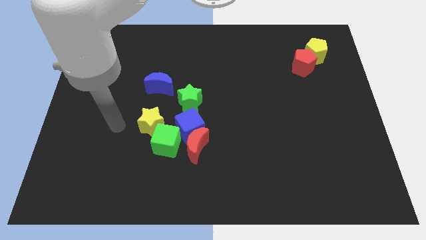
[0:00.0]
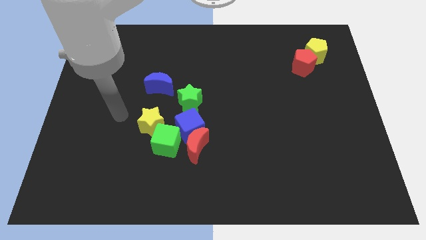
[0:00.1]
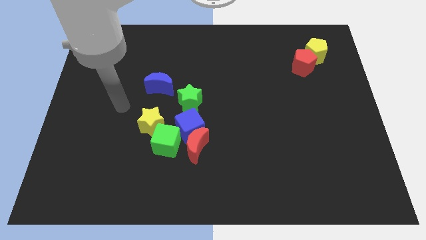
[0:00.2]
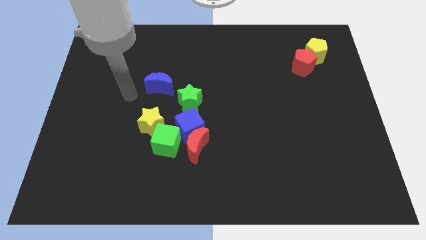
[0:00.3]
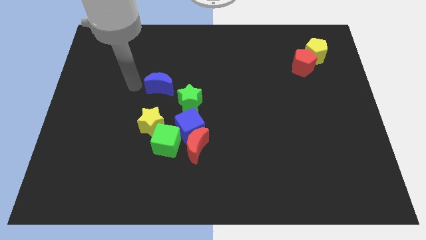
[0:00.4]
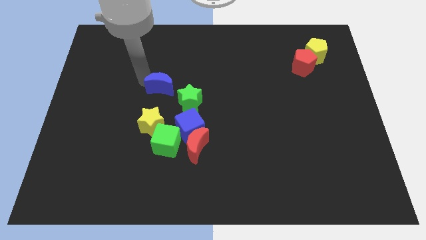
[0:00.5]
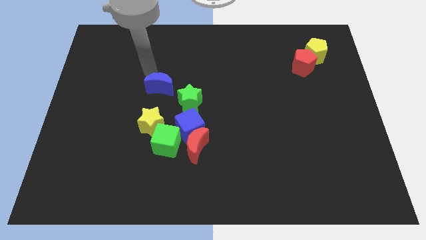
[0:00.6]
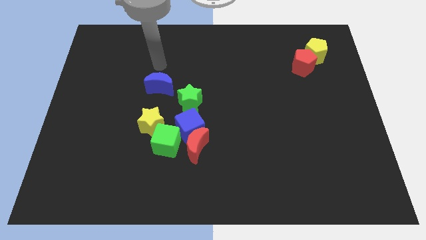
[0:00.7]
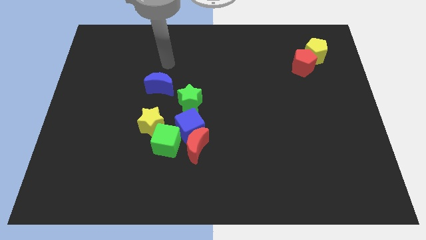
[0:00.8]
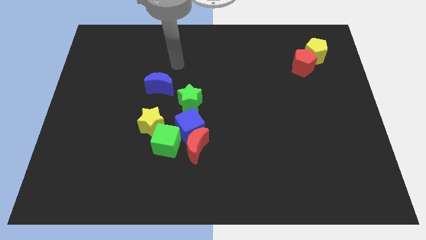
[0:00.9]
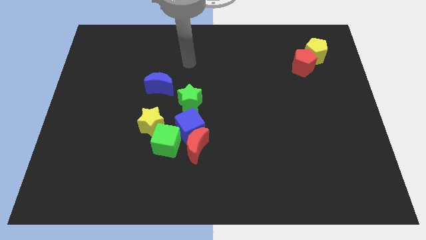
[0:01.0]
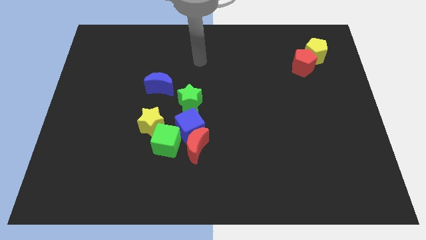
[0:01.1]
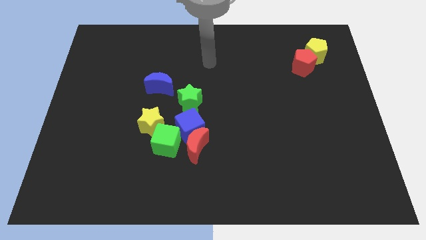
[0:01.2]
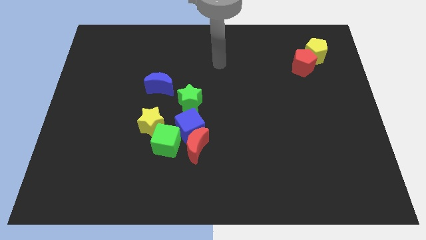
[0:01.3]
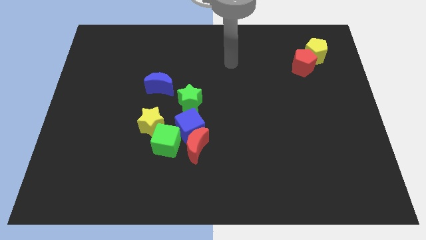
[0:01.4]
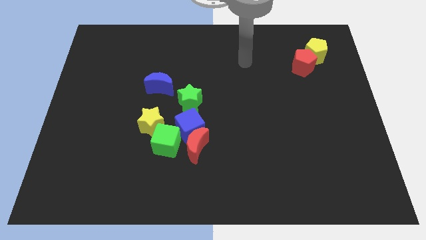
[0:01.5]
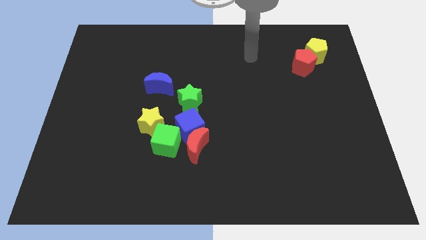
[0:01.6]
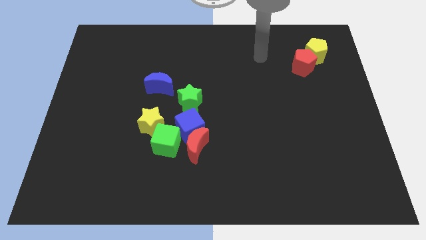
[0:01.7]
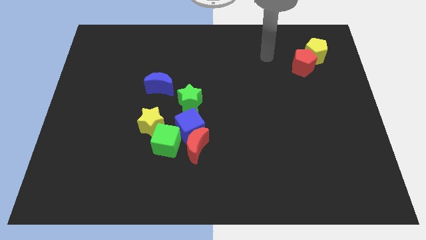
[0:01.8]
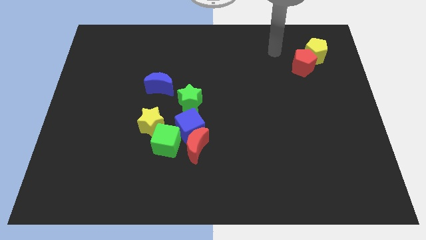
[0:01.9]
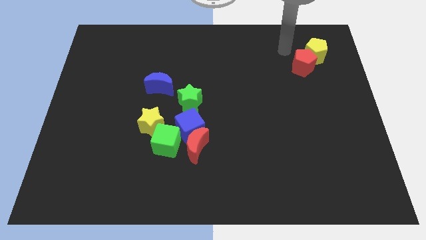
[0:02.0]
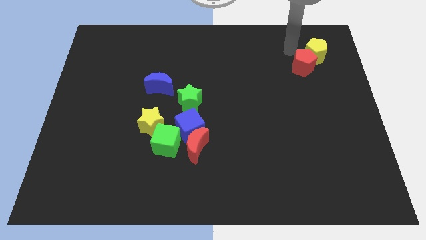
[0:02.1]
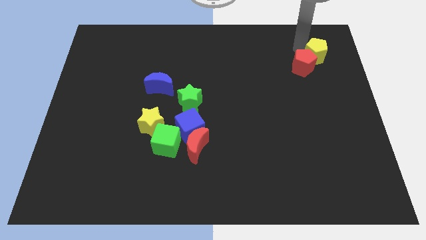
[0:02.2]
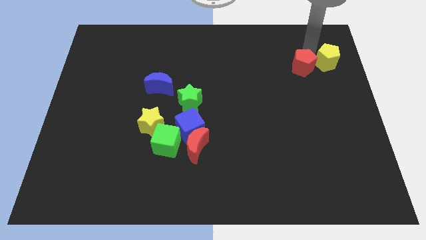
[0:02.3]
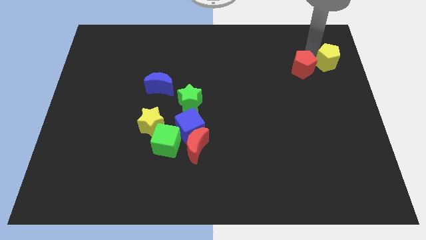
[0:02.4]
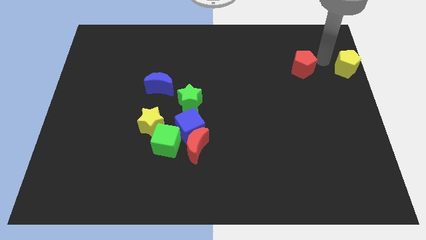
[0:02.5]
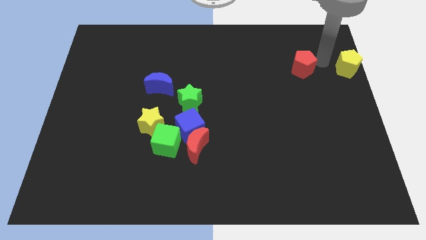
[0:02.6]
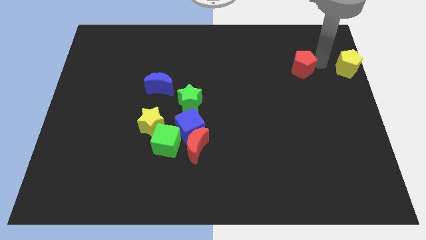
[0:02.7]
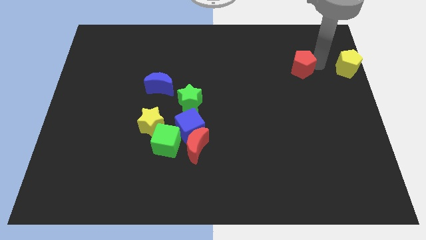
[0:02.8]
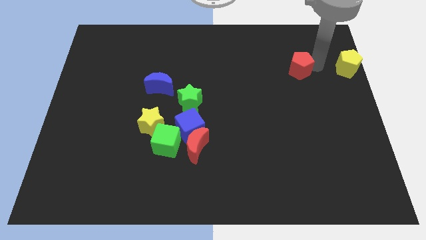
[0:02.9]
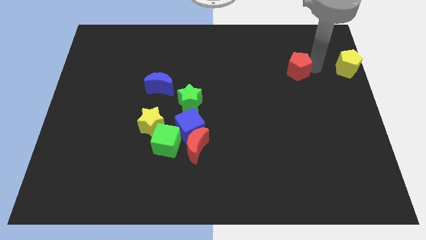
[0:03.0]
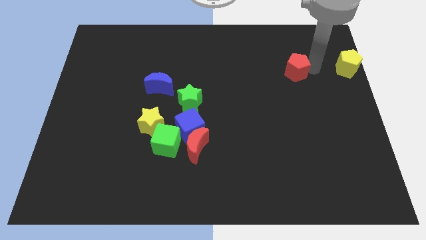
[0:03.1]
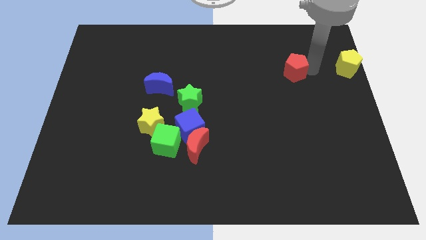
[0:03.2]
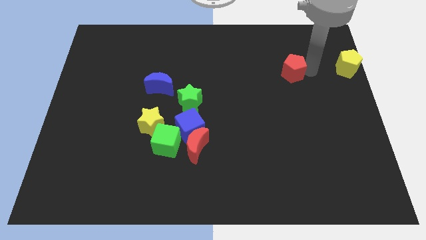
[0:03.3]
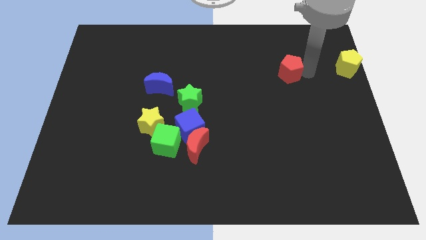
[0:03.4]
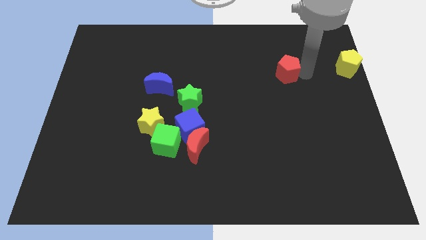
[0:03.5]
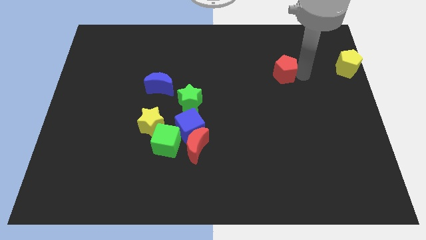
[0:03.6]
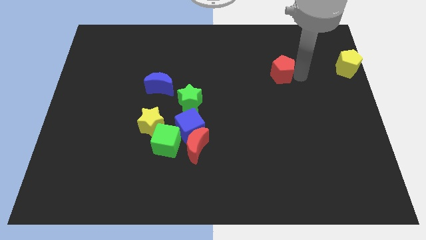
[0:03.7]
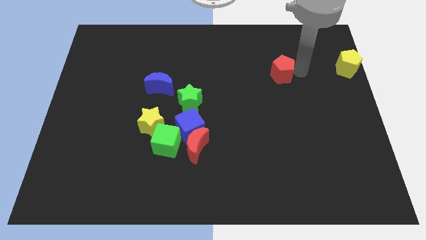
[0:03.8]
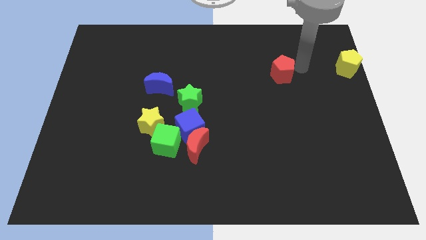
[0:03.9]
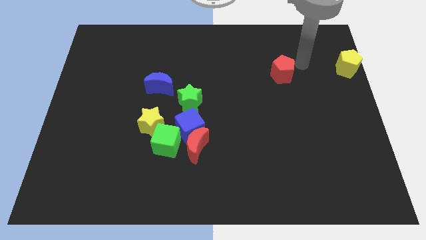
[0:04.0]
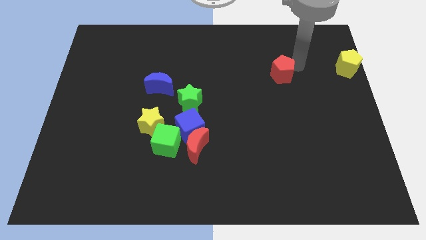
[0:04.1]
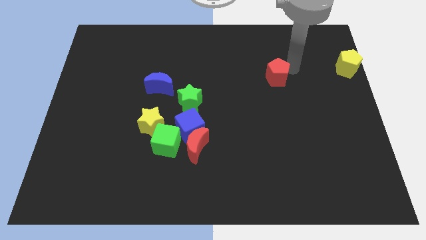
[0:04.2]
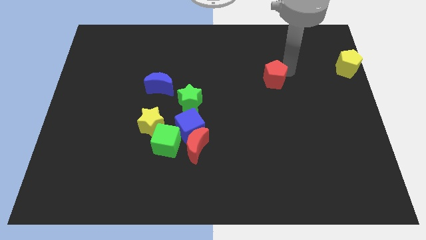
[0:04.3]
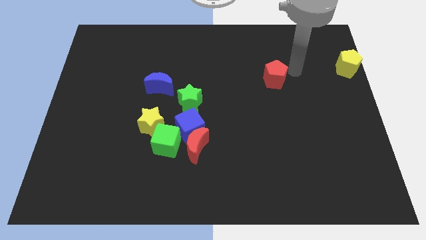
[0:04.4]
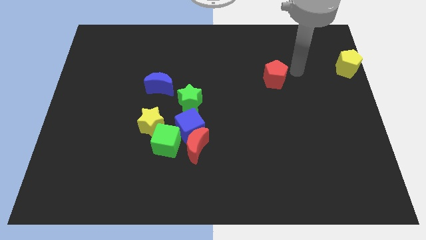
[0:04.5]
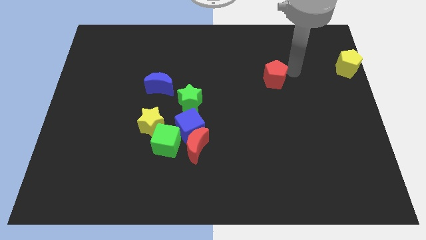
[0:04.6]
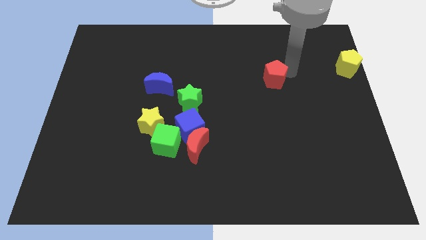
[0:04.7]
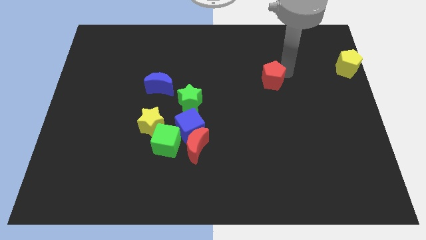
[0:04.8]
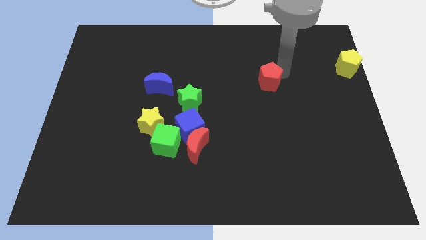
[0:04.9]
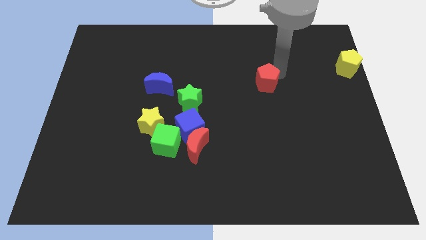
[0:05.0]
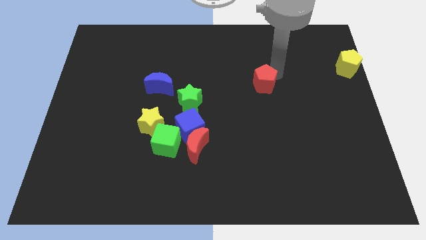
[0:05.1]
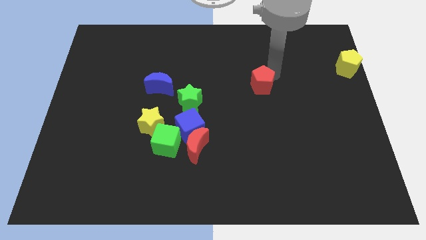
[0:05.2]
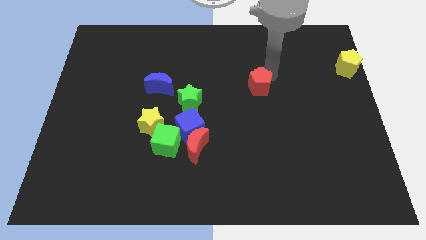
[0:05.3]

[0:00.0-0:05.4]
push the red pentagon to the middle
